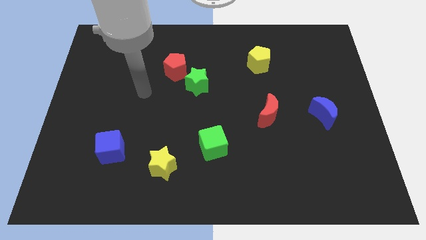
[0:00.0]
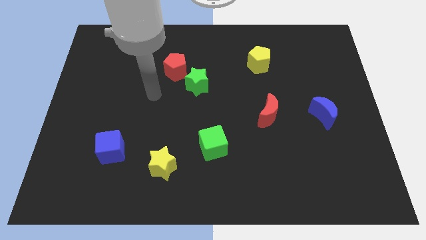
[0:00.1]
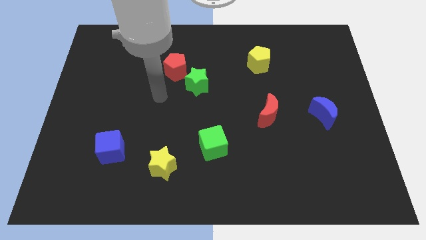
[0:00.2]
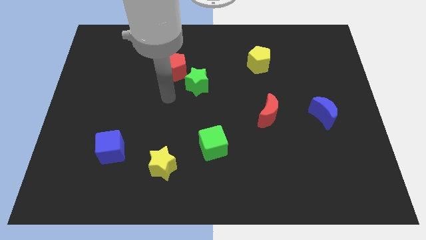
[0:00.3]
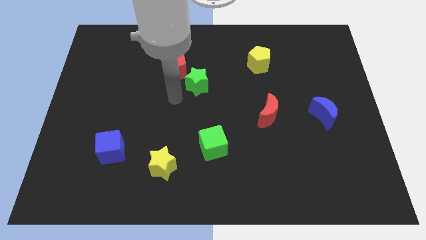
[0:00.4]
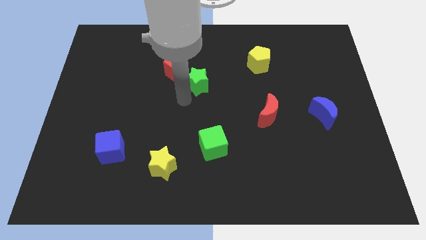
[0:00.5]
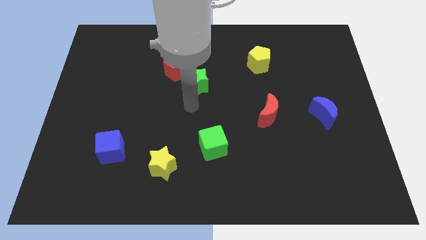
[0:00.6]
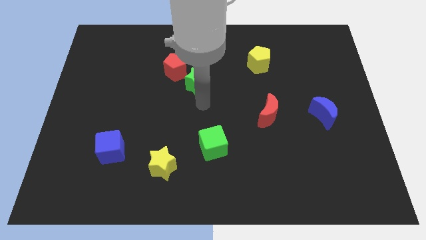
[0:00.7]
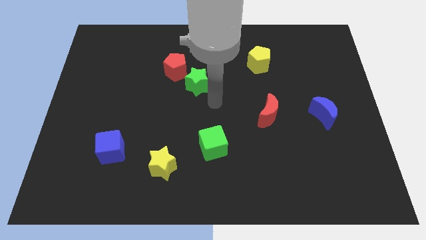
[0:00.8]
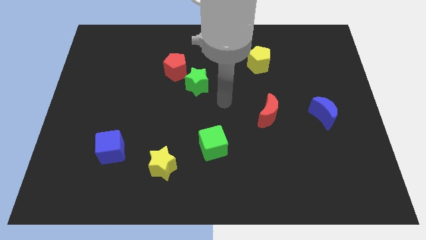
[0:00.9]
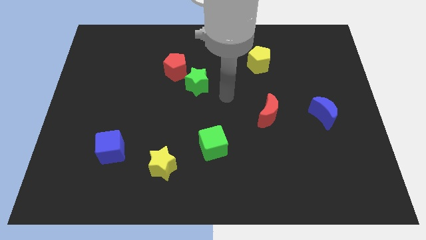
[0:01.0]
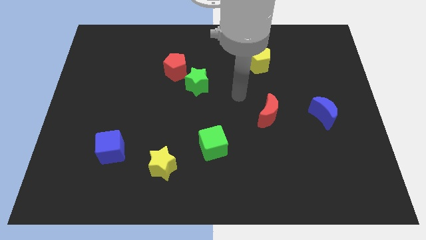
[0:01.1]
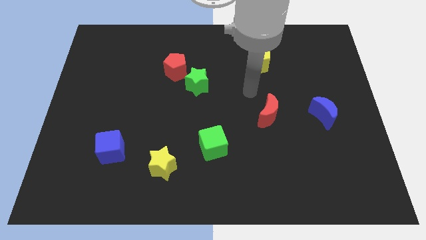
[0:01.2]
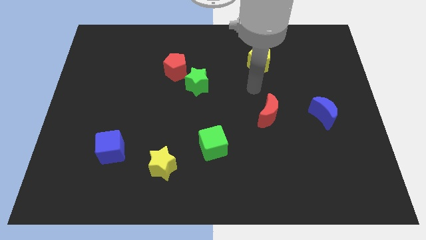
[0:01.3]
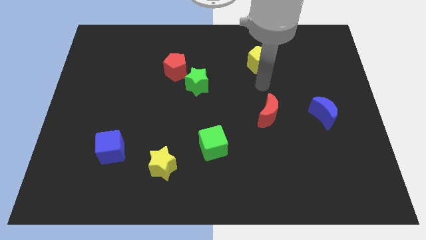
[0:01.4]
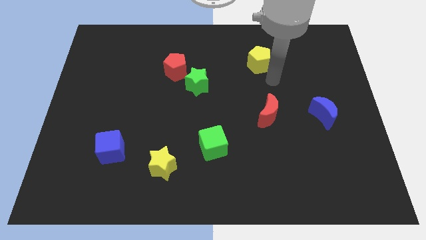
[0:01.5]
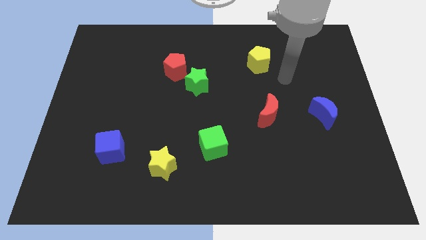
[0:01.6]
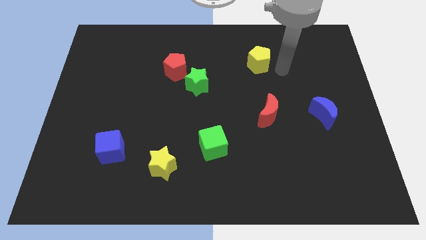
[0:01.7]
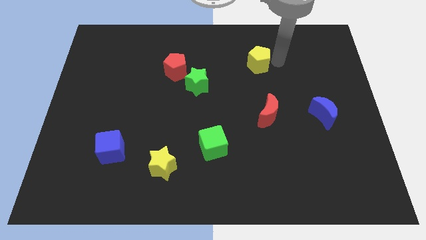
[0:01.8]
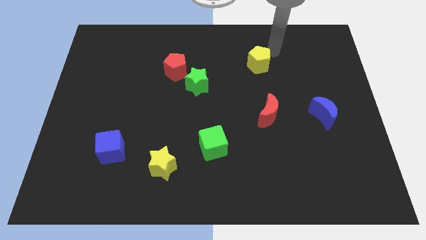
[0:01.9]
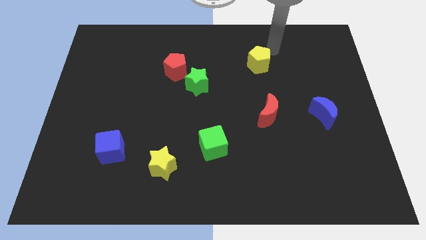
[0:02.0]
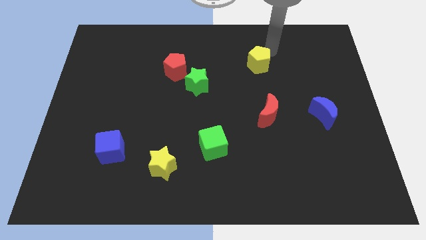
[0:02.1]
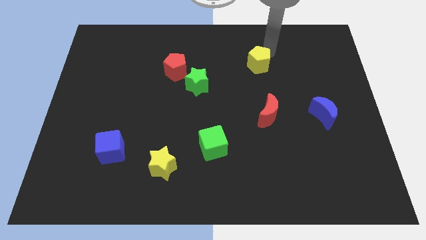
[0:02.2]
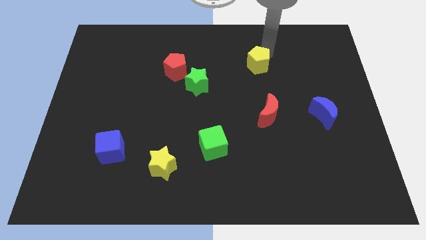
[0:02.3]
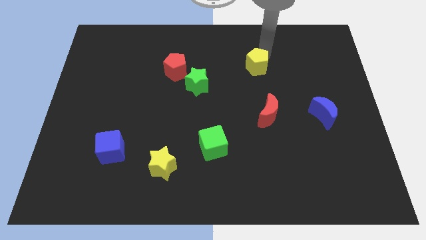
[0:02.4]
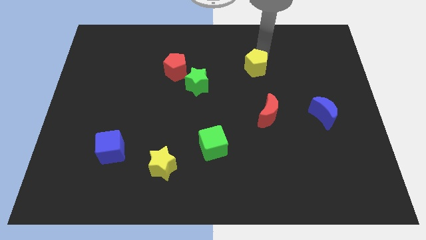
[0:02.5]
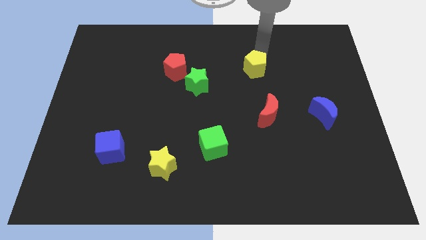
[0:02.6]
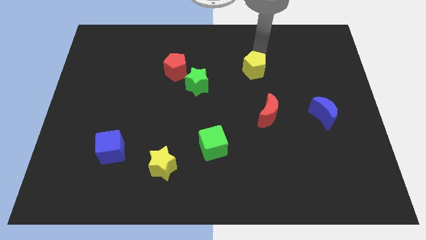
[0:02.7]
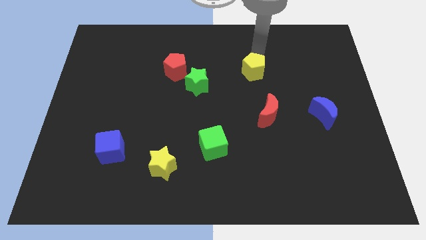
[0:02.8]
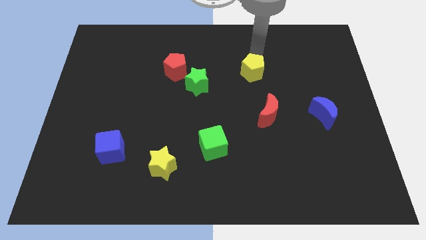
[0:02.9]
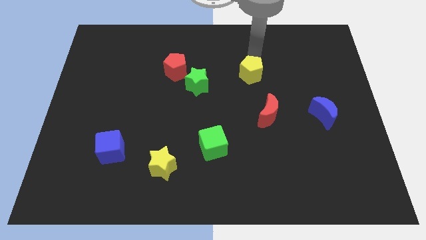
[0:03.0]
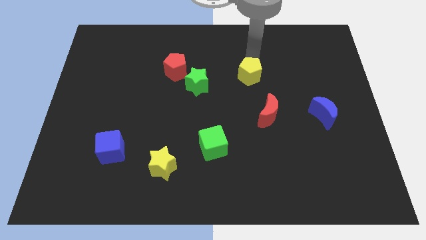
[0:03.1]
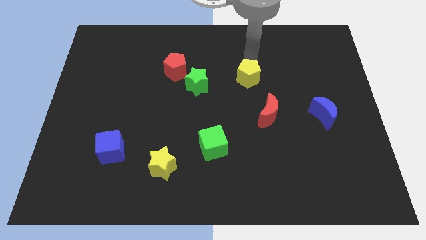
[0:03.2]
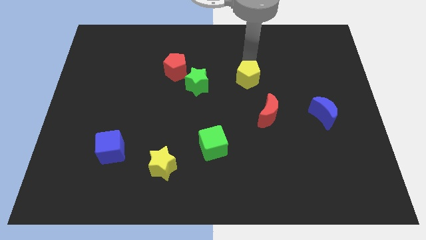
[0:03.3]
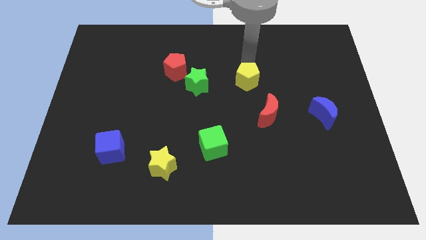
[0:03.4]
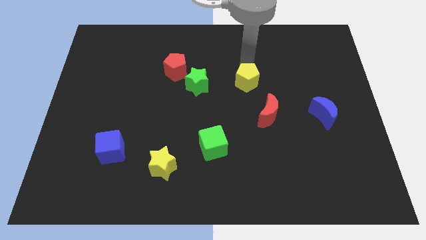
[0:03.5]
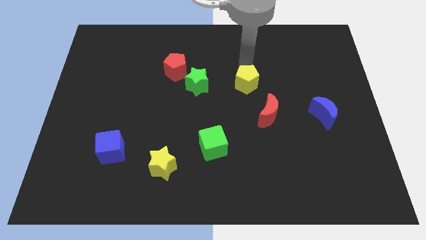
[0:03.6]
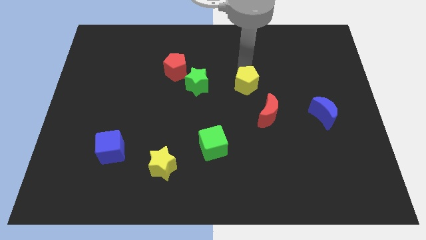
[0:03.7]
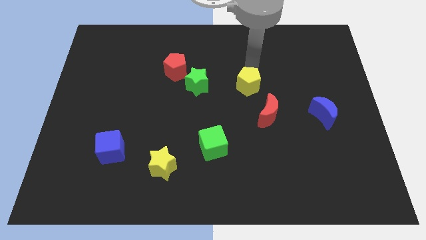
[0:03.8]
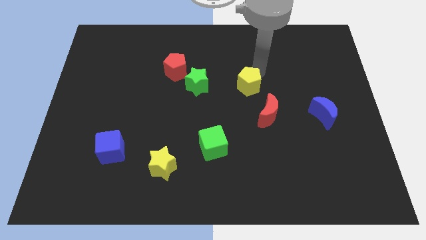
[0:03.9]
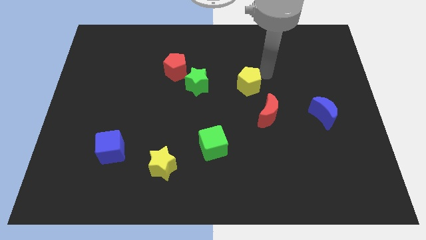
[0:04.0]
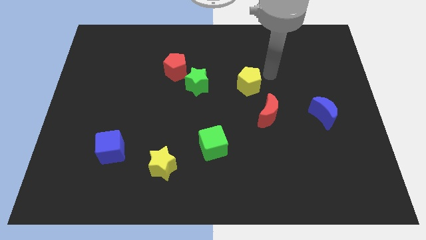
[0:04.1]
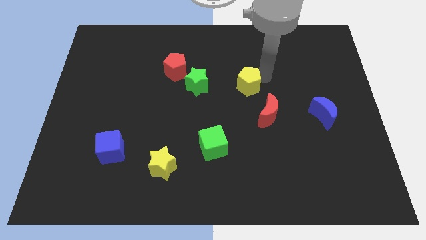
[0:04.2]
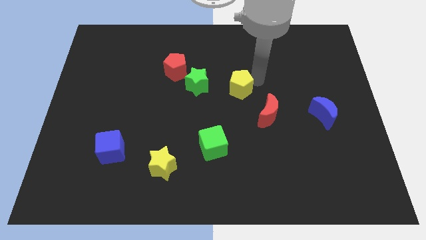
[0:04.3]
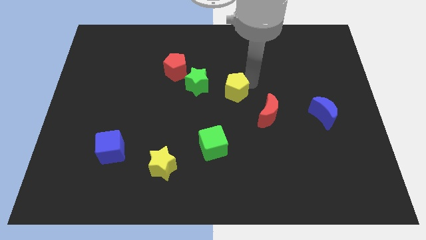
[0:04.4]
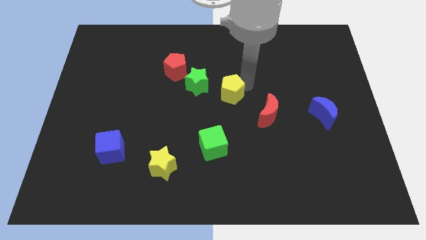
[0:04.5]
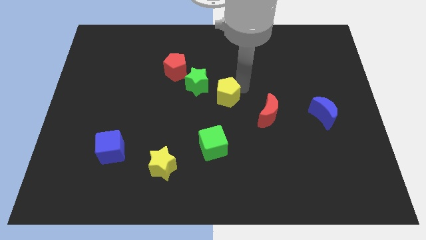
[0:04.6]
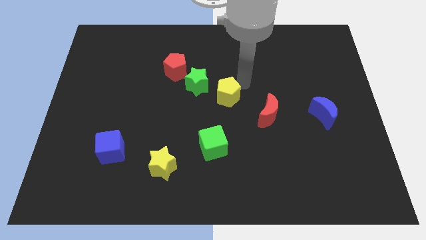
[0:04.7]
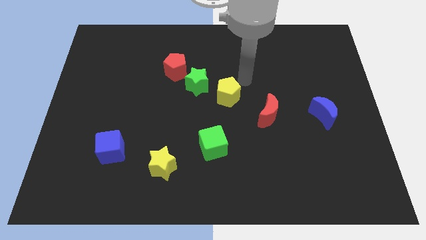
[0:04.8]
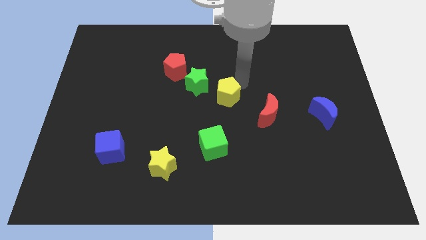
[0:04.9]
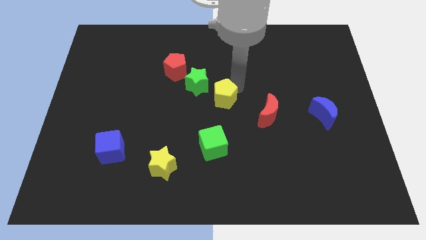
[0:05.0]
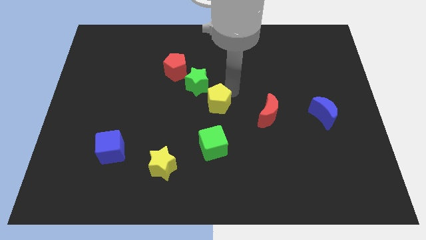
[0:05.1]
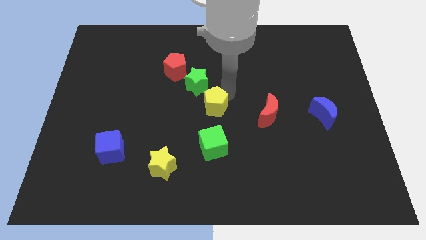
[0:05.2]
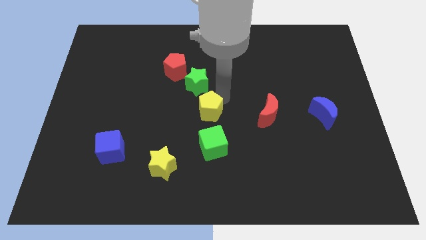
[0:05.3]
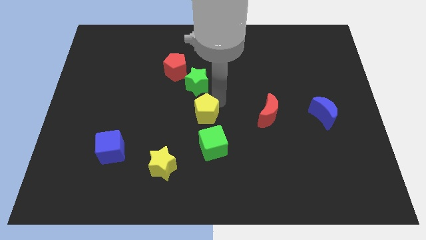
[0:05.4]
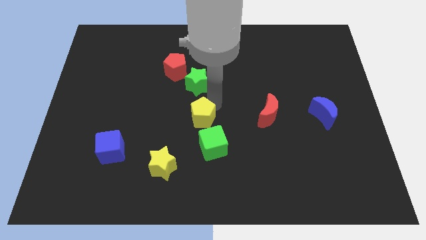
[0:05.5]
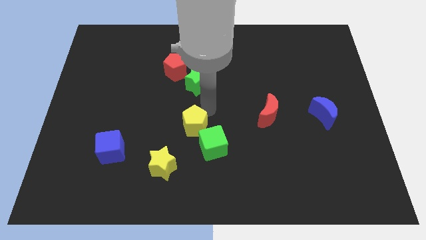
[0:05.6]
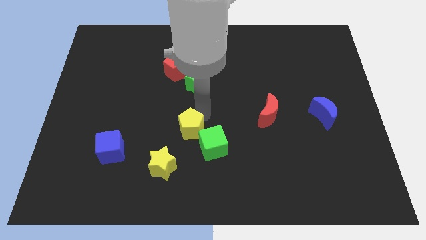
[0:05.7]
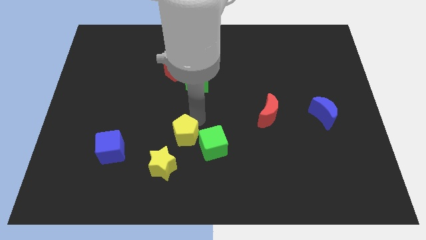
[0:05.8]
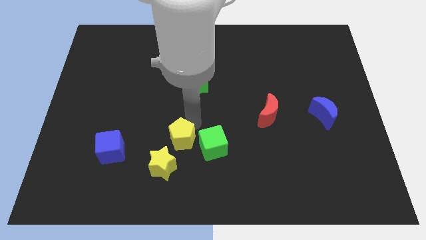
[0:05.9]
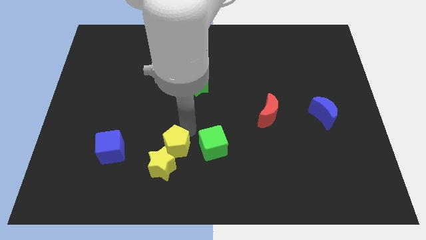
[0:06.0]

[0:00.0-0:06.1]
put the yellow pentagon to the yellow star

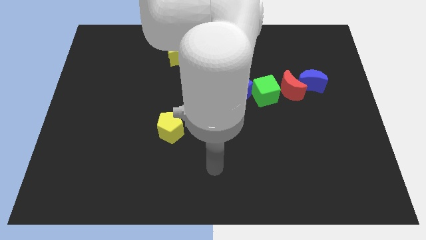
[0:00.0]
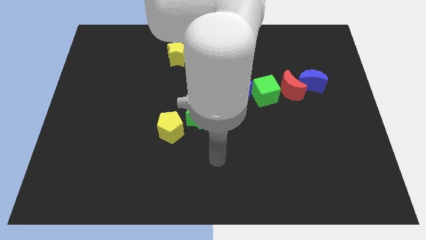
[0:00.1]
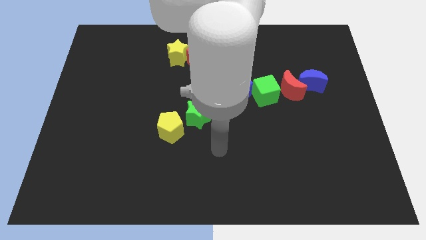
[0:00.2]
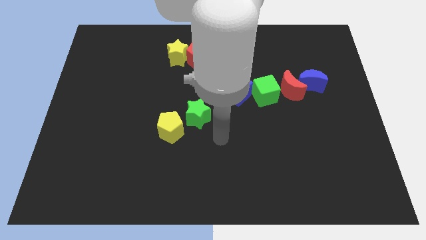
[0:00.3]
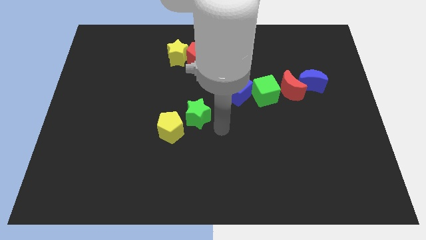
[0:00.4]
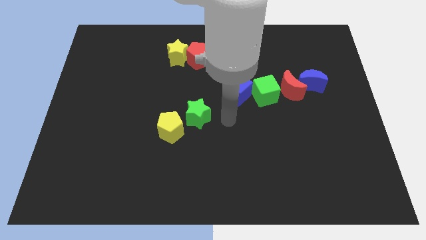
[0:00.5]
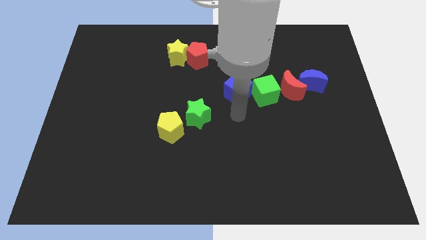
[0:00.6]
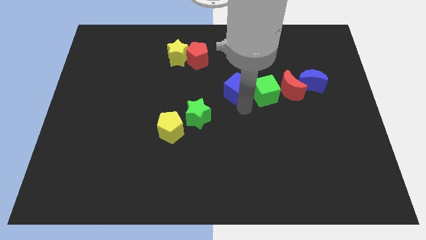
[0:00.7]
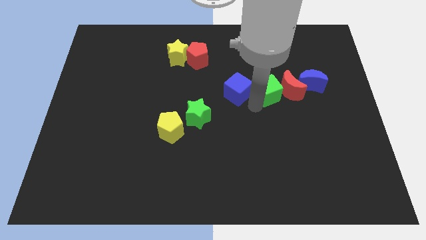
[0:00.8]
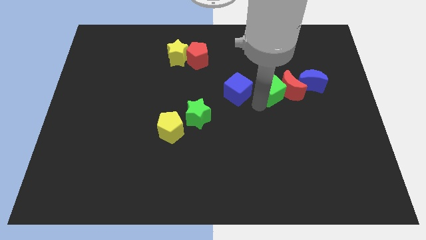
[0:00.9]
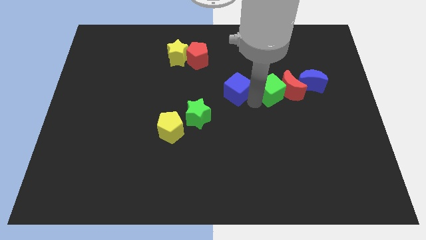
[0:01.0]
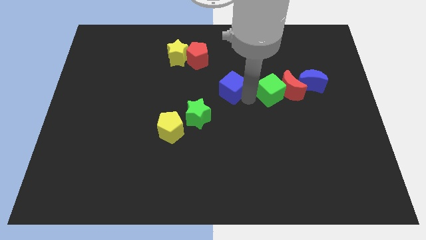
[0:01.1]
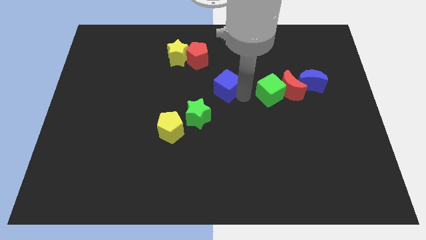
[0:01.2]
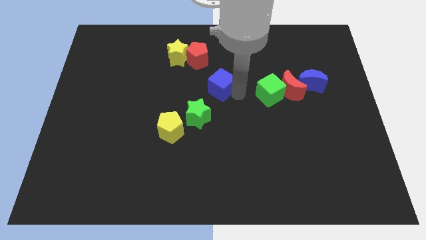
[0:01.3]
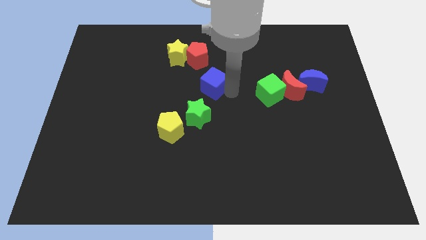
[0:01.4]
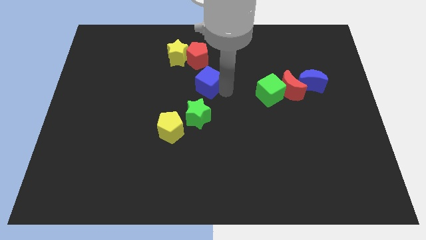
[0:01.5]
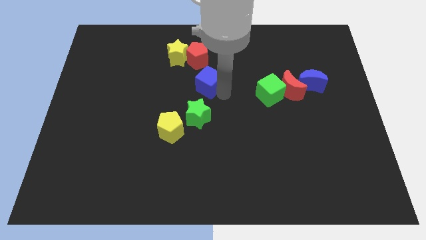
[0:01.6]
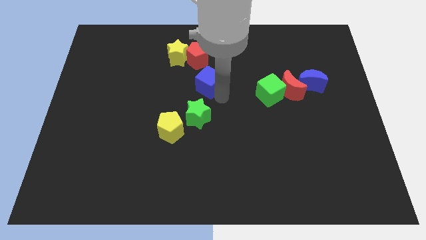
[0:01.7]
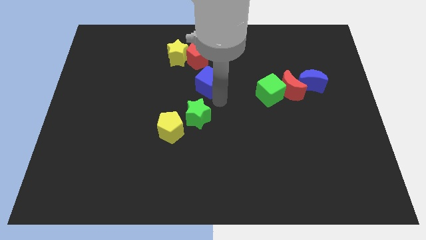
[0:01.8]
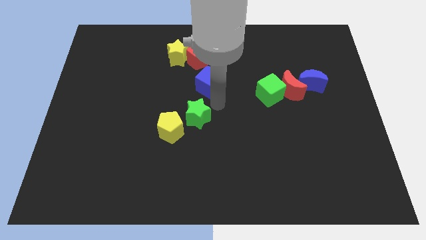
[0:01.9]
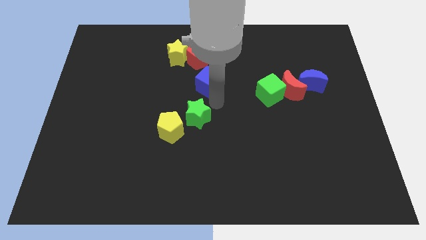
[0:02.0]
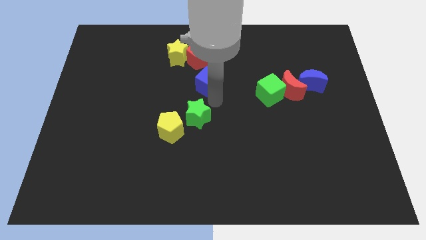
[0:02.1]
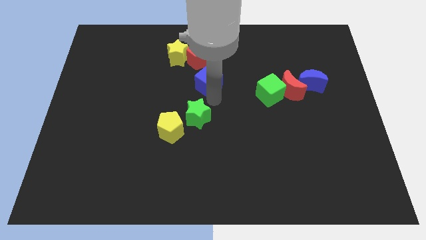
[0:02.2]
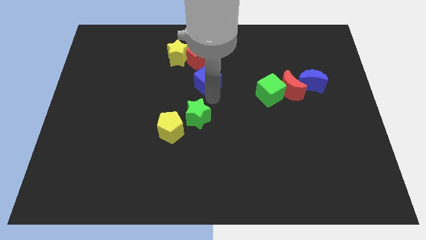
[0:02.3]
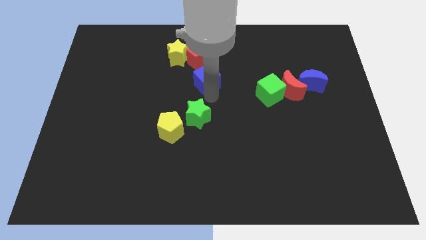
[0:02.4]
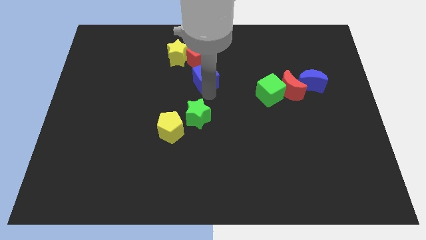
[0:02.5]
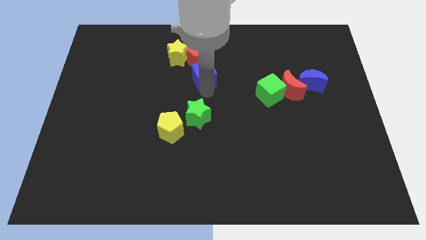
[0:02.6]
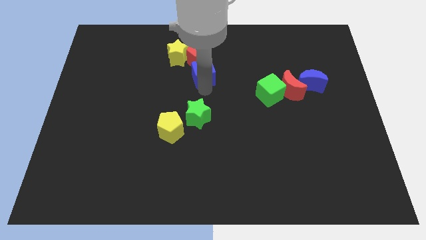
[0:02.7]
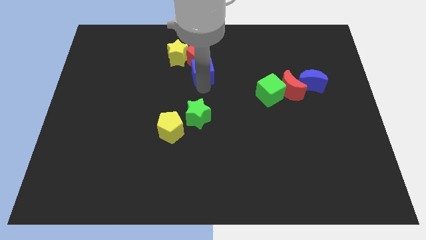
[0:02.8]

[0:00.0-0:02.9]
move the blue cube close to the red pentagon
